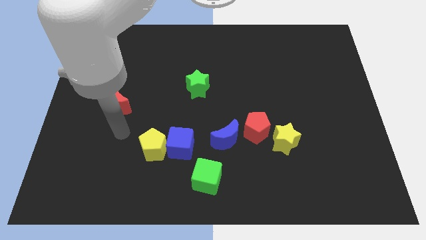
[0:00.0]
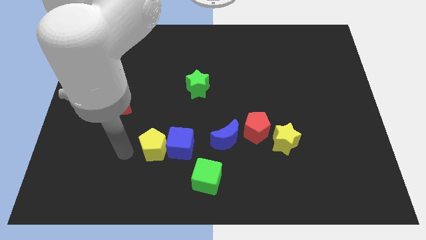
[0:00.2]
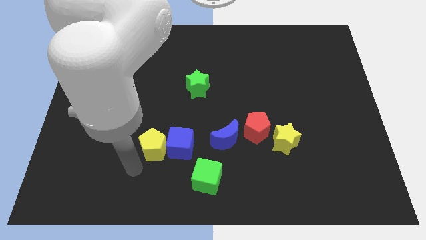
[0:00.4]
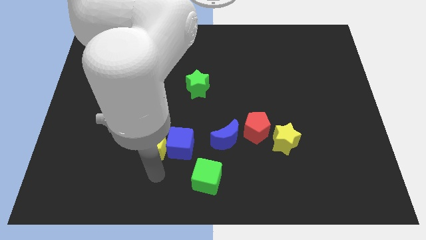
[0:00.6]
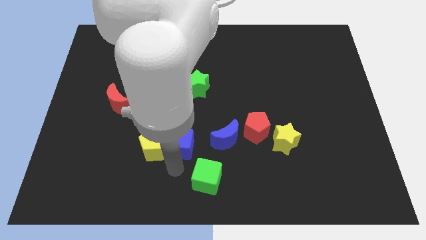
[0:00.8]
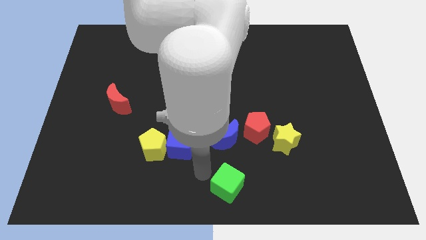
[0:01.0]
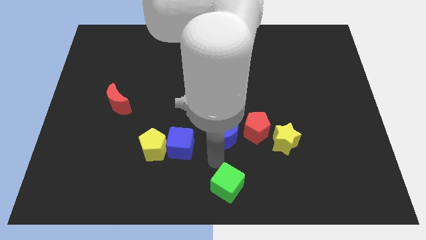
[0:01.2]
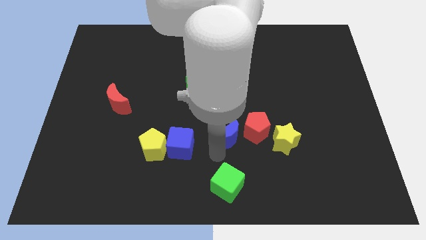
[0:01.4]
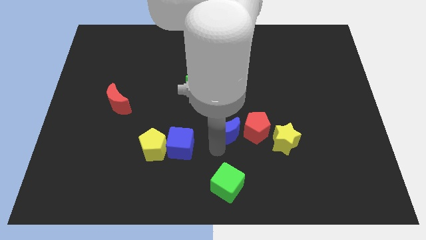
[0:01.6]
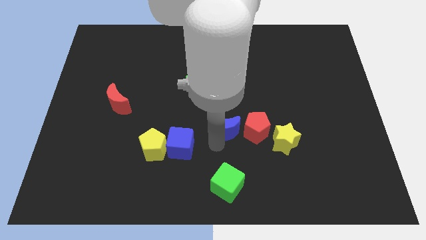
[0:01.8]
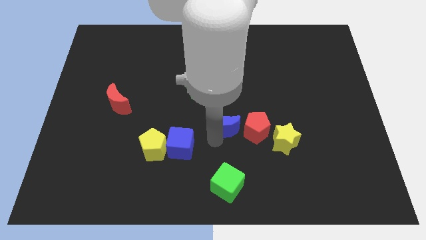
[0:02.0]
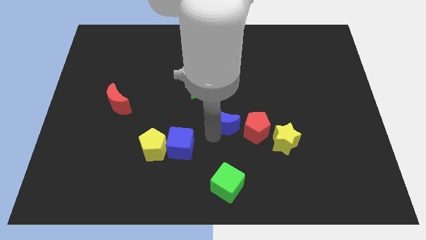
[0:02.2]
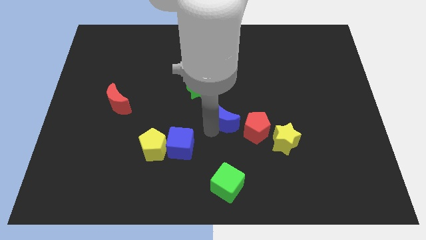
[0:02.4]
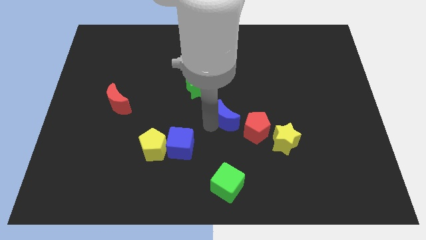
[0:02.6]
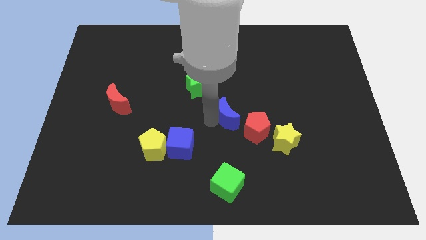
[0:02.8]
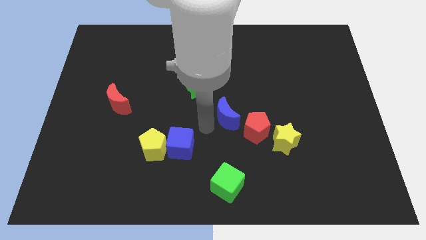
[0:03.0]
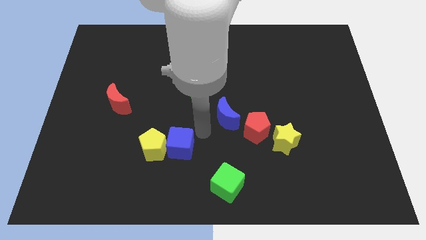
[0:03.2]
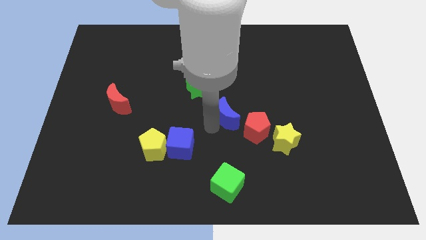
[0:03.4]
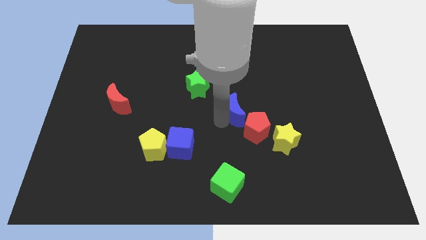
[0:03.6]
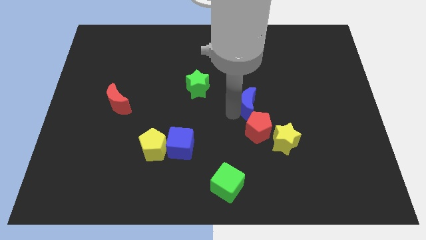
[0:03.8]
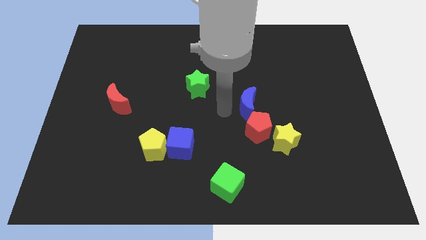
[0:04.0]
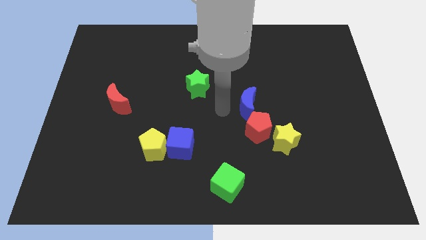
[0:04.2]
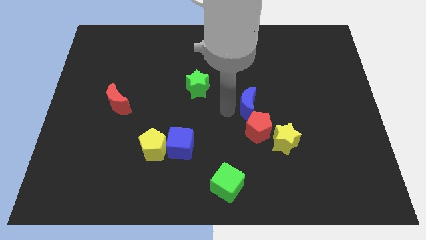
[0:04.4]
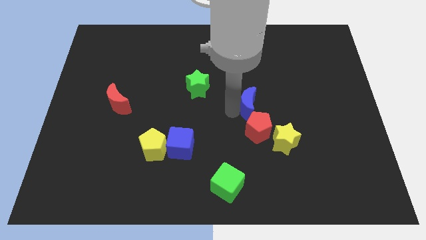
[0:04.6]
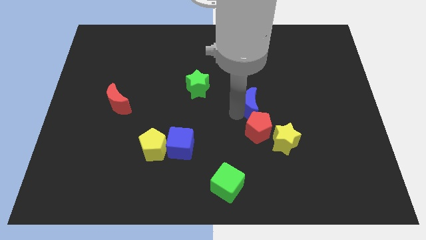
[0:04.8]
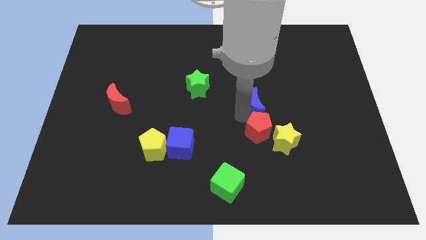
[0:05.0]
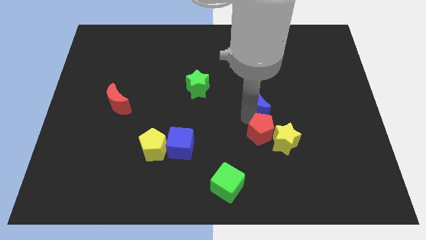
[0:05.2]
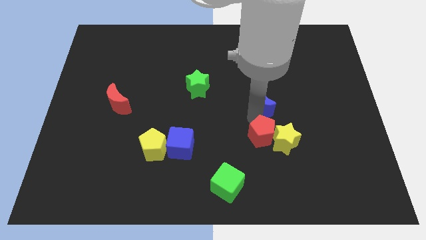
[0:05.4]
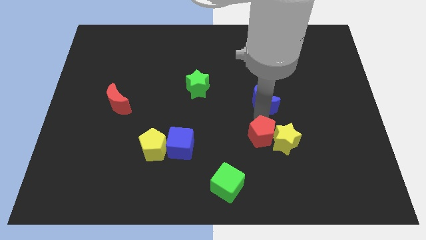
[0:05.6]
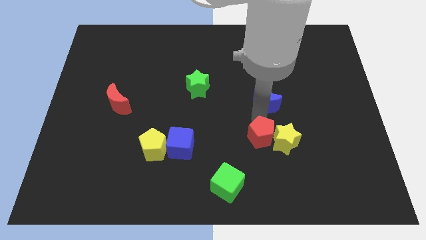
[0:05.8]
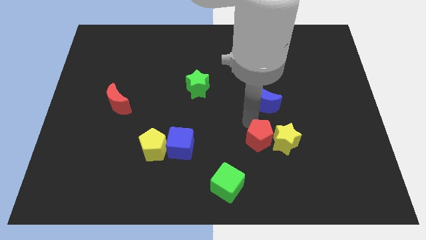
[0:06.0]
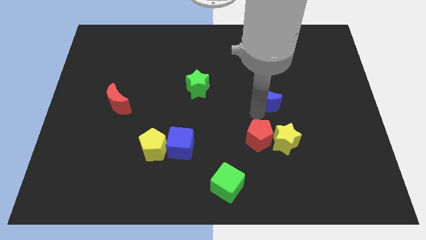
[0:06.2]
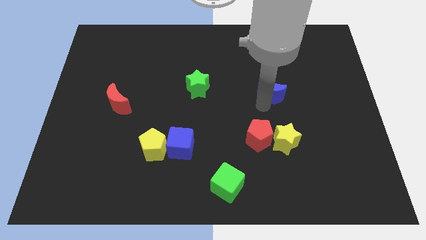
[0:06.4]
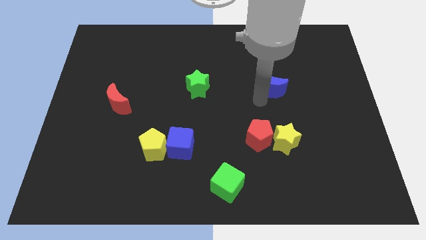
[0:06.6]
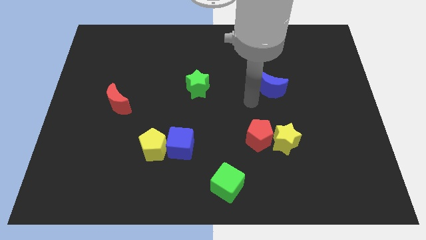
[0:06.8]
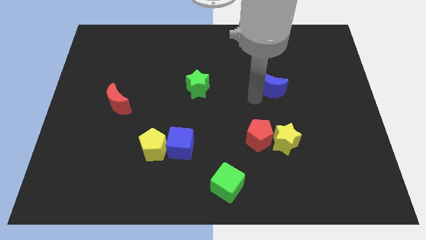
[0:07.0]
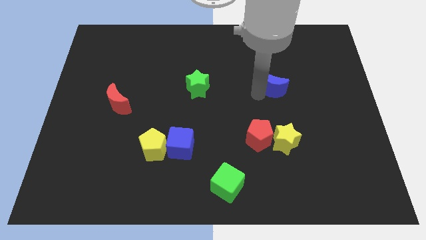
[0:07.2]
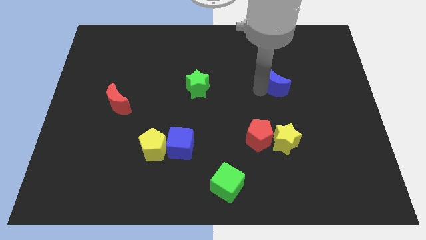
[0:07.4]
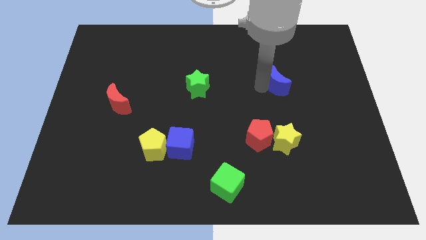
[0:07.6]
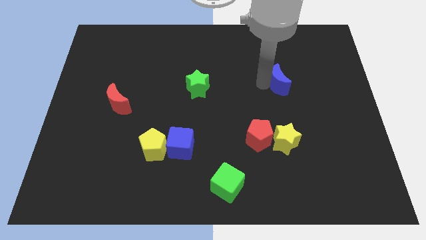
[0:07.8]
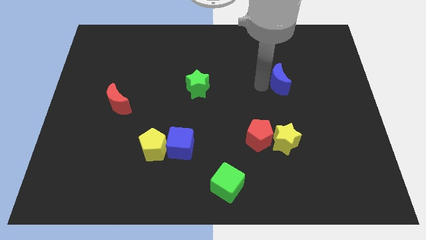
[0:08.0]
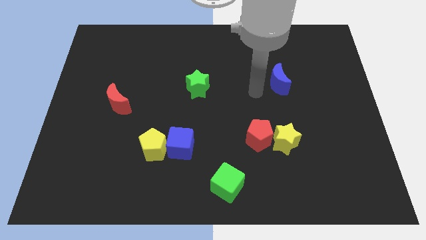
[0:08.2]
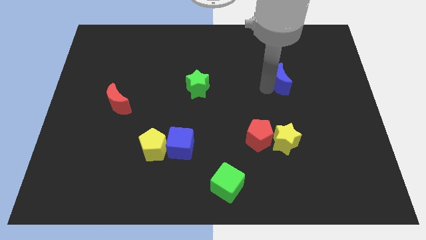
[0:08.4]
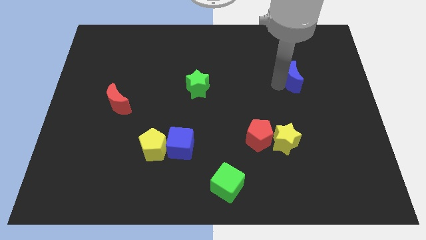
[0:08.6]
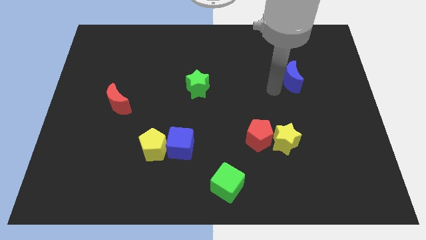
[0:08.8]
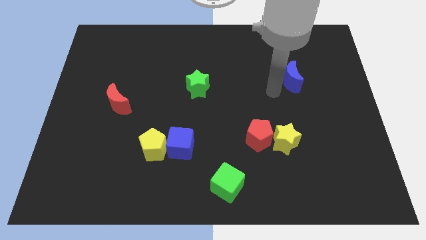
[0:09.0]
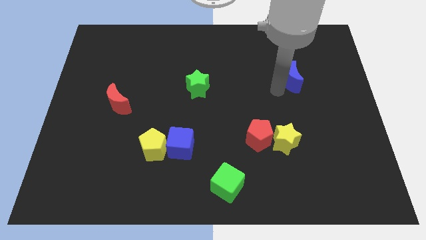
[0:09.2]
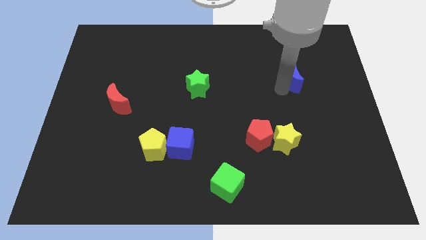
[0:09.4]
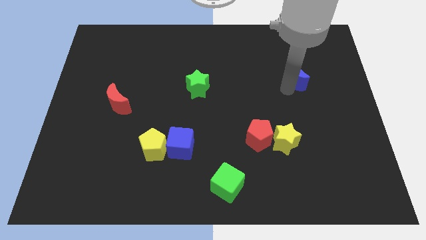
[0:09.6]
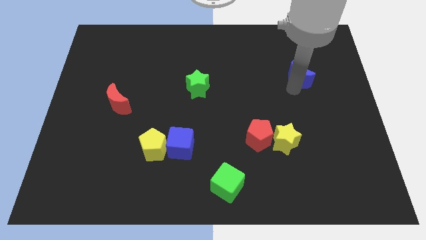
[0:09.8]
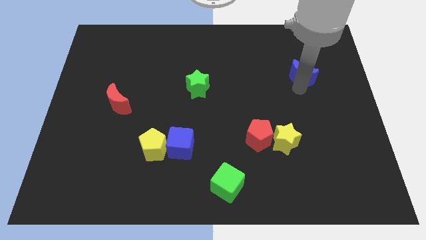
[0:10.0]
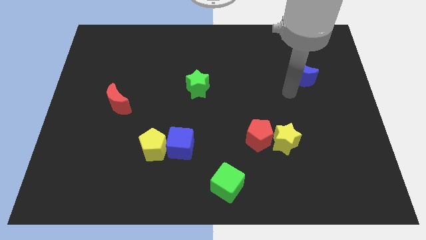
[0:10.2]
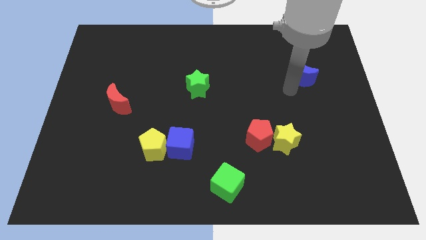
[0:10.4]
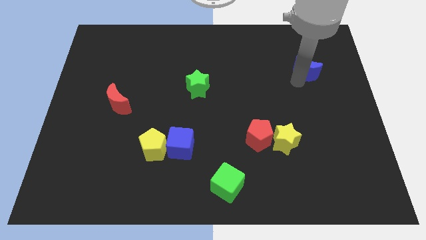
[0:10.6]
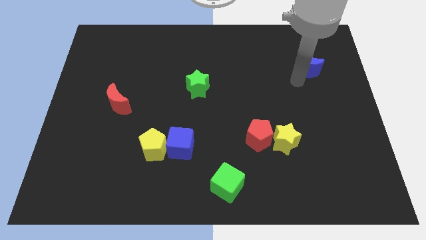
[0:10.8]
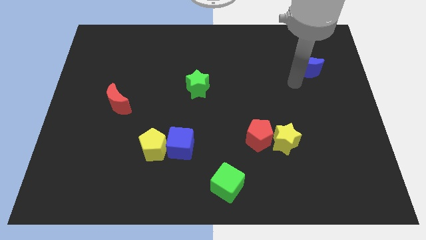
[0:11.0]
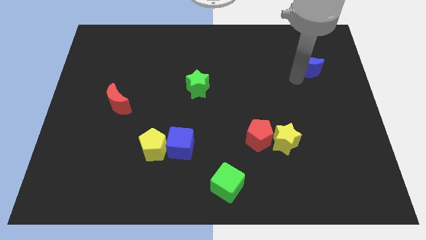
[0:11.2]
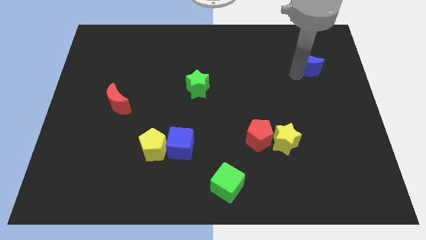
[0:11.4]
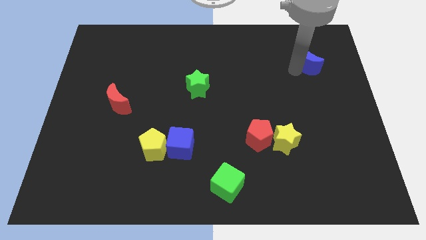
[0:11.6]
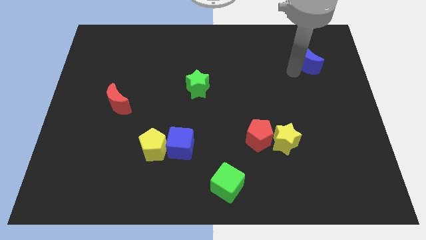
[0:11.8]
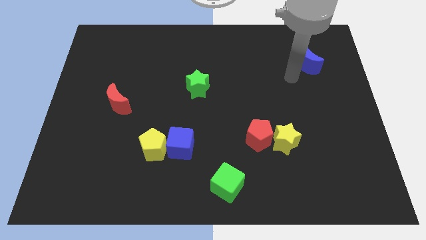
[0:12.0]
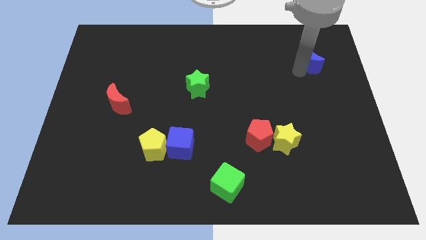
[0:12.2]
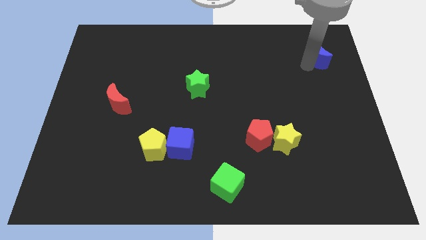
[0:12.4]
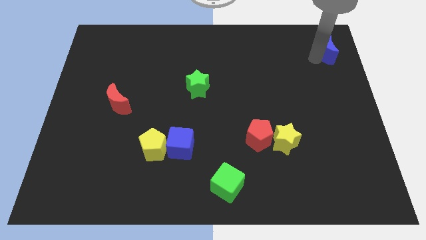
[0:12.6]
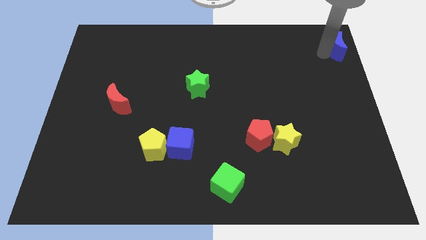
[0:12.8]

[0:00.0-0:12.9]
put the blue moon to the upper right corner

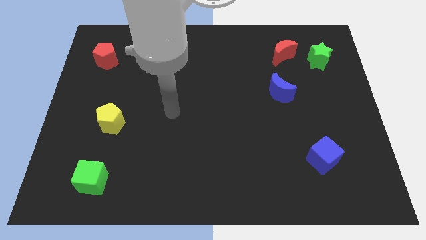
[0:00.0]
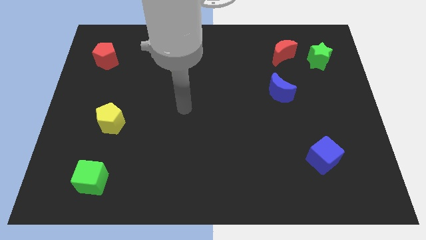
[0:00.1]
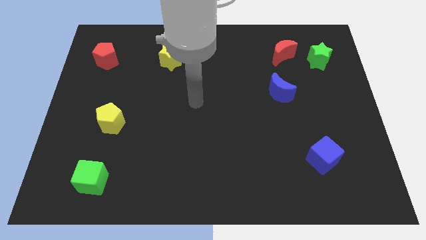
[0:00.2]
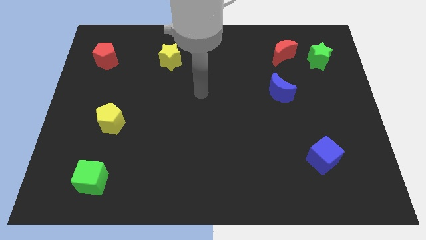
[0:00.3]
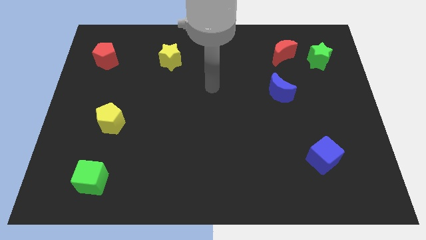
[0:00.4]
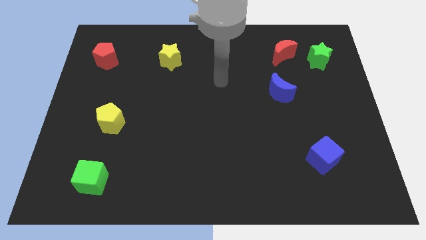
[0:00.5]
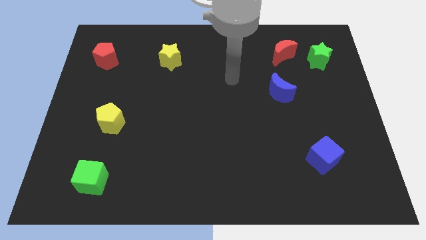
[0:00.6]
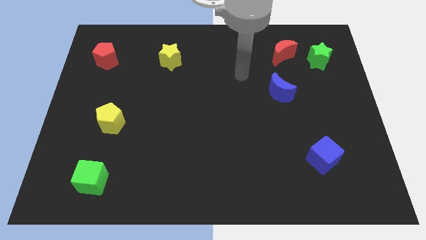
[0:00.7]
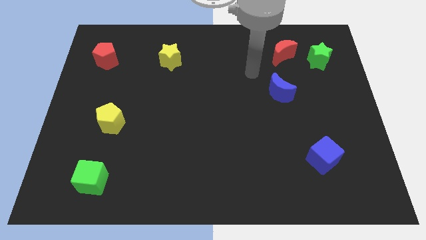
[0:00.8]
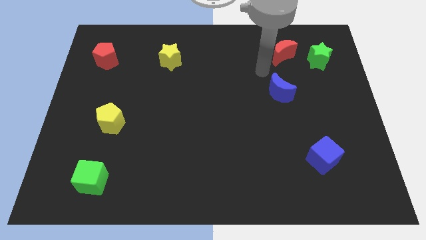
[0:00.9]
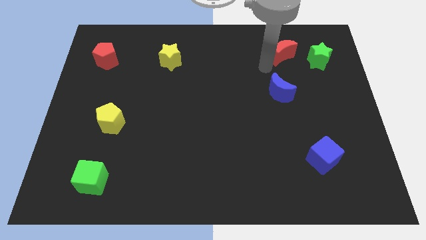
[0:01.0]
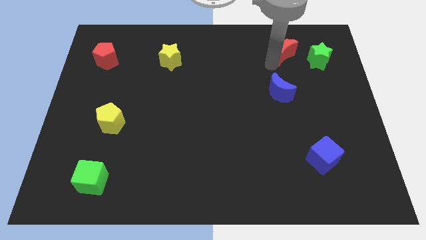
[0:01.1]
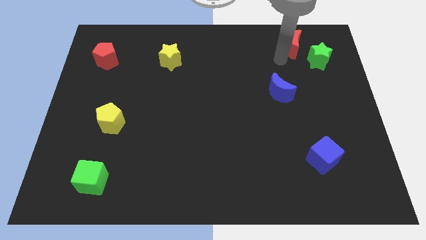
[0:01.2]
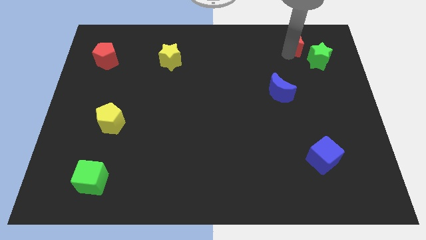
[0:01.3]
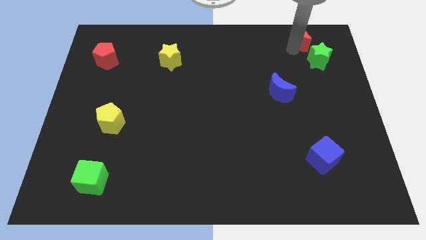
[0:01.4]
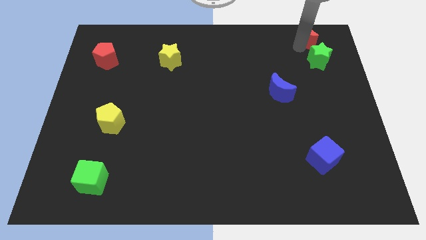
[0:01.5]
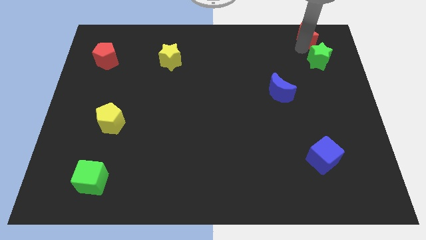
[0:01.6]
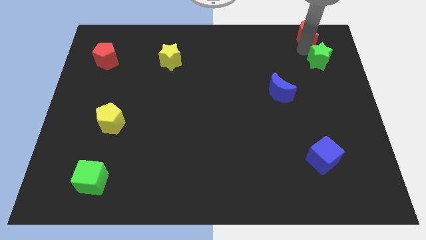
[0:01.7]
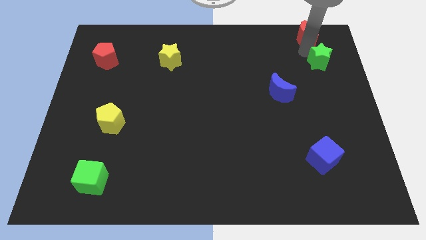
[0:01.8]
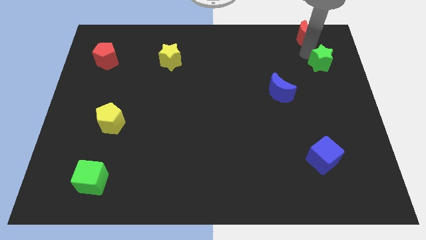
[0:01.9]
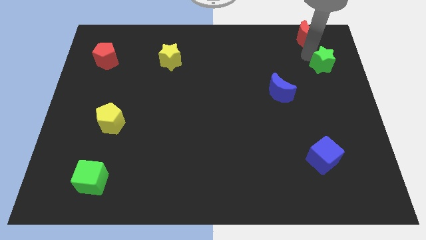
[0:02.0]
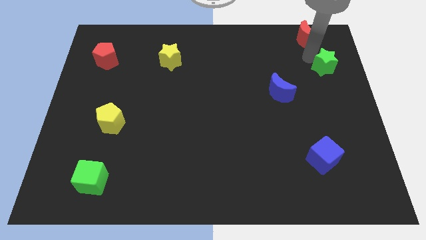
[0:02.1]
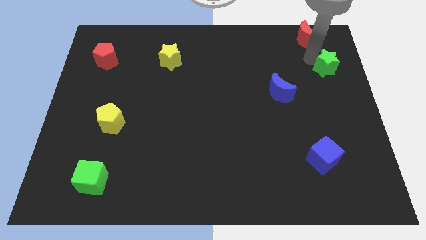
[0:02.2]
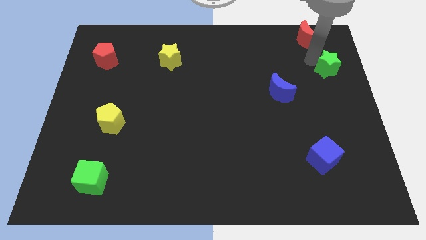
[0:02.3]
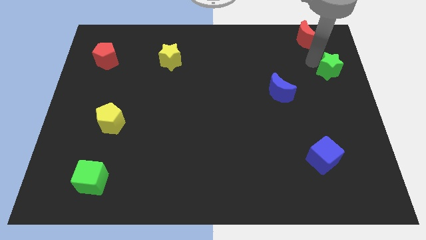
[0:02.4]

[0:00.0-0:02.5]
move the green star to the right side
